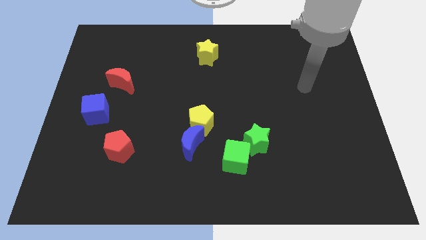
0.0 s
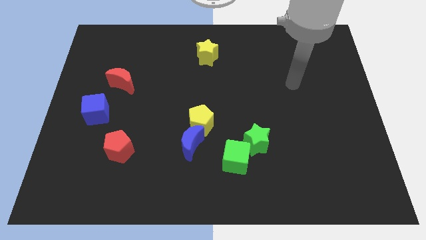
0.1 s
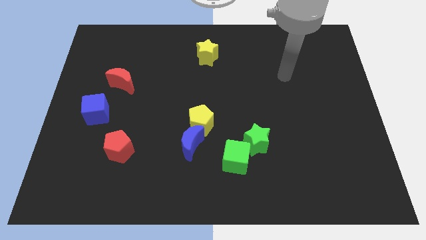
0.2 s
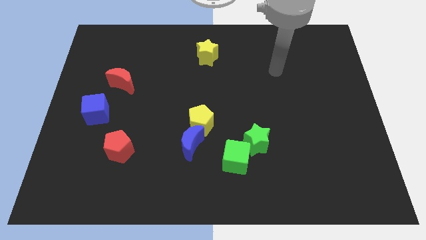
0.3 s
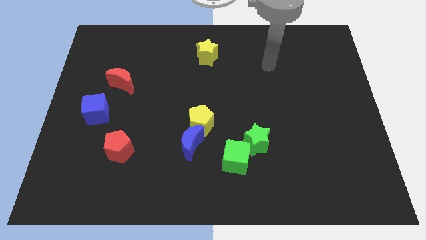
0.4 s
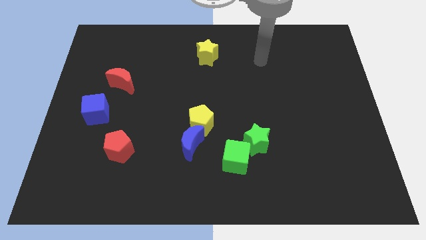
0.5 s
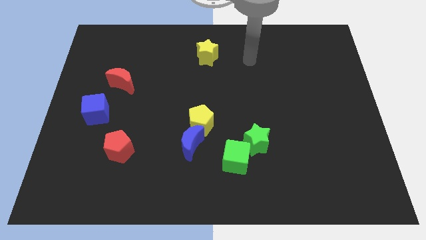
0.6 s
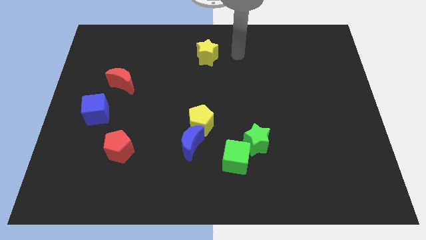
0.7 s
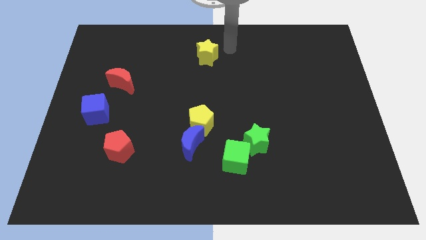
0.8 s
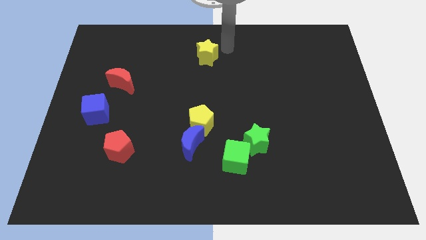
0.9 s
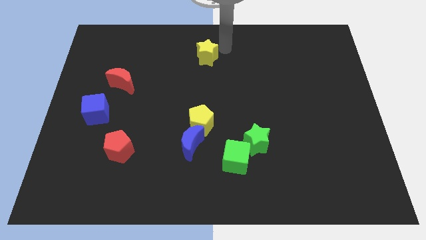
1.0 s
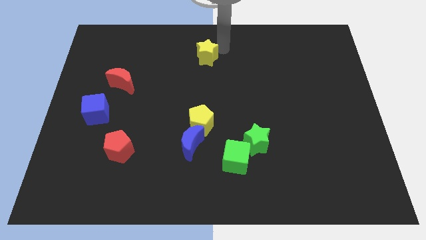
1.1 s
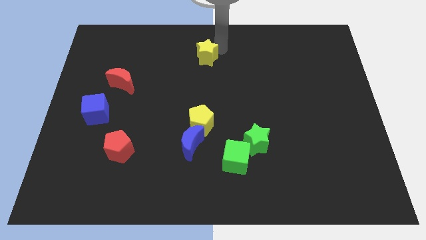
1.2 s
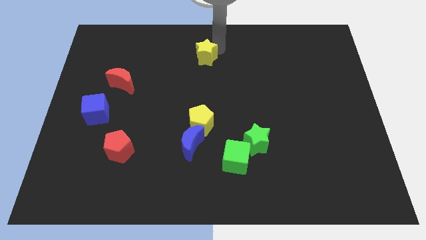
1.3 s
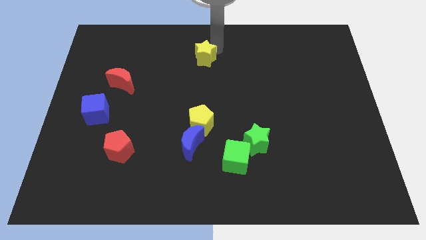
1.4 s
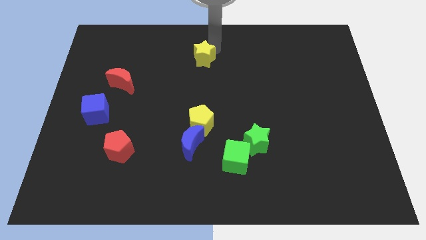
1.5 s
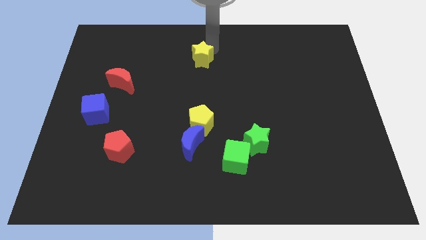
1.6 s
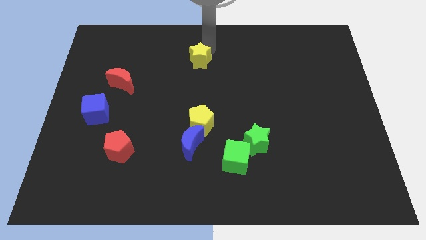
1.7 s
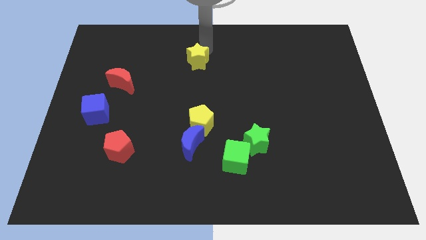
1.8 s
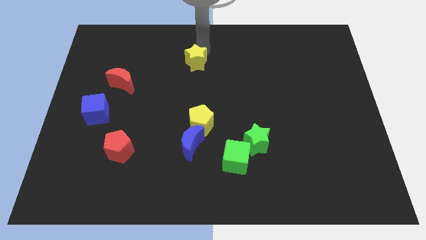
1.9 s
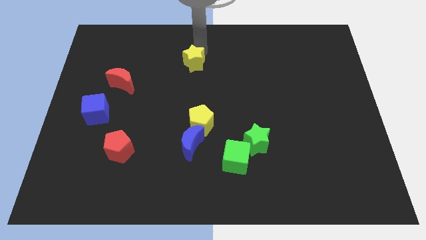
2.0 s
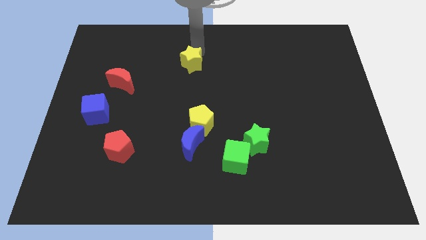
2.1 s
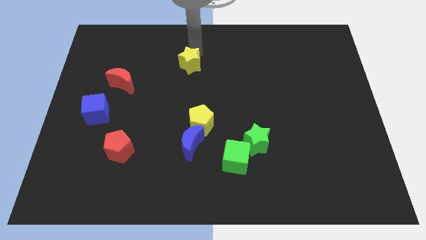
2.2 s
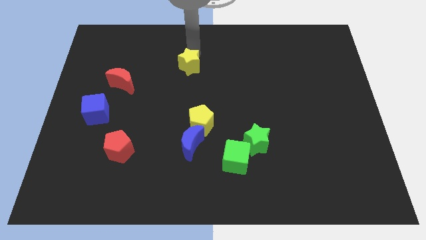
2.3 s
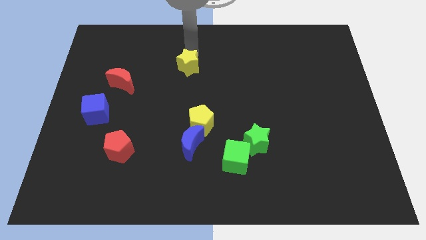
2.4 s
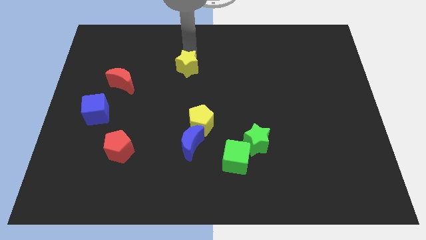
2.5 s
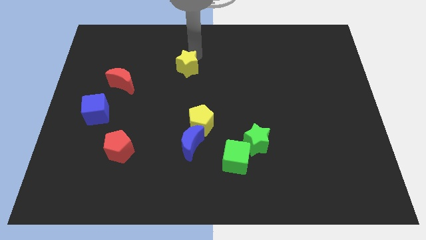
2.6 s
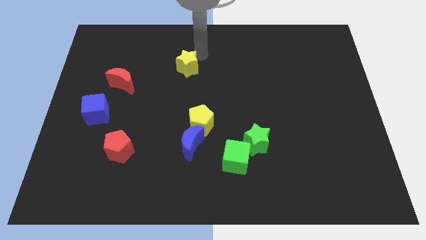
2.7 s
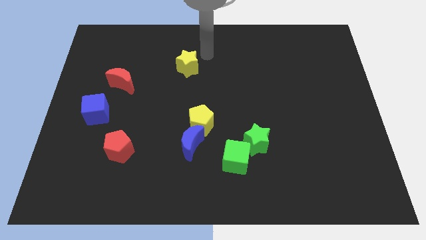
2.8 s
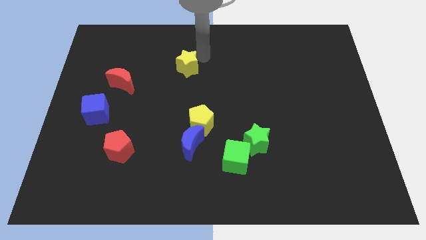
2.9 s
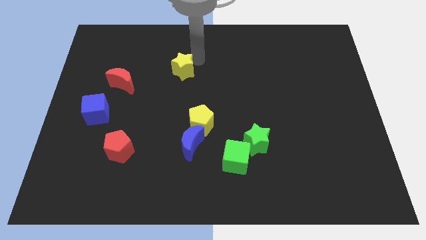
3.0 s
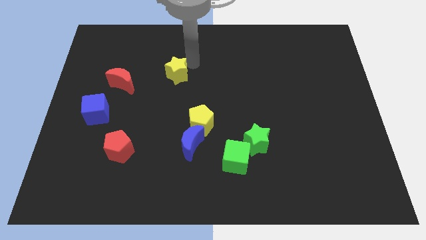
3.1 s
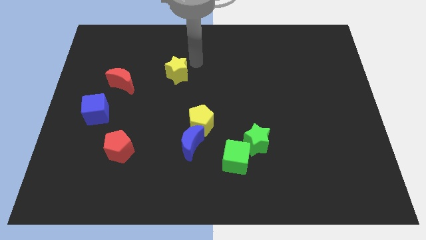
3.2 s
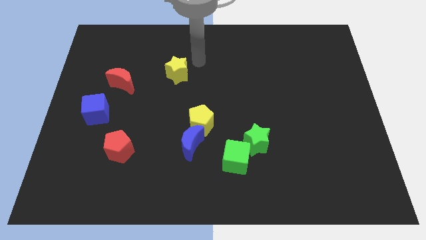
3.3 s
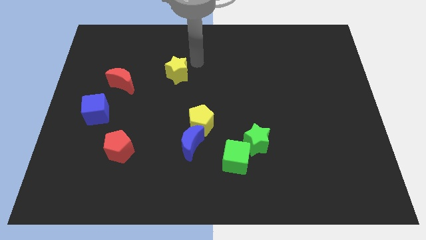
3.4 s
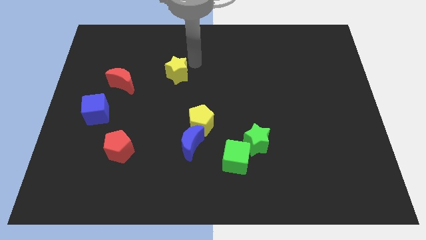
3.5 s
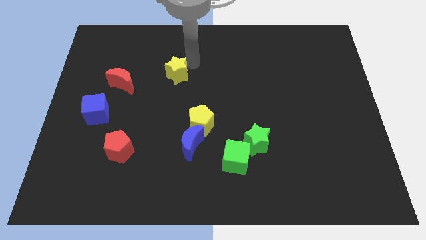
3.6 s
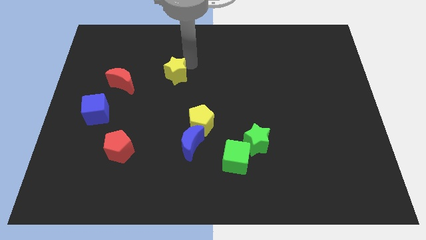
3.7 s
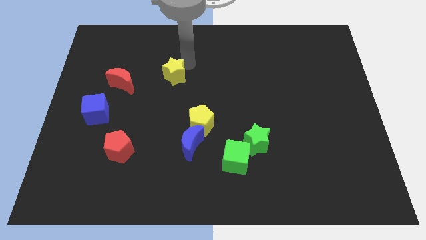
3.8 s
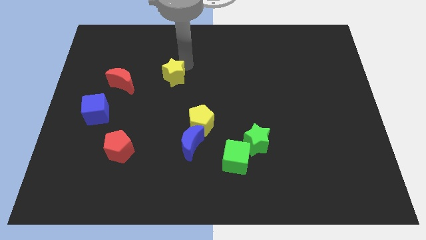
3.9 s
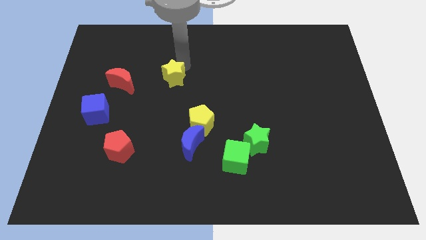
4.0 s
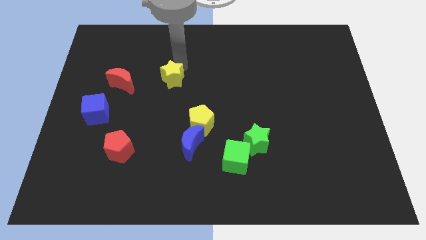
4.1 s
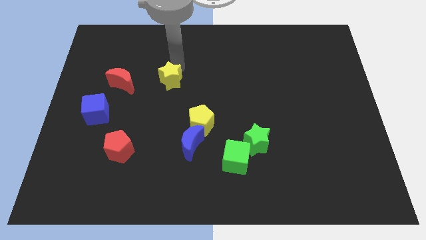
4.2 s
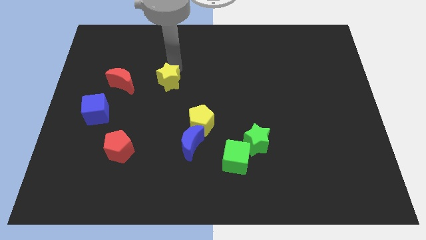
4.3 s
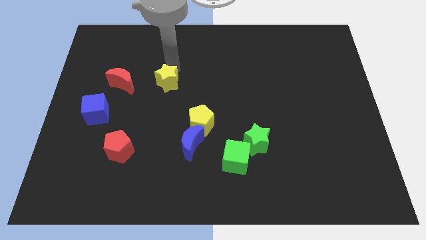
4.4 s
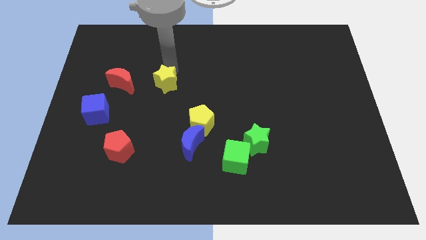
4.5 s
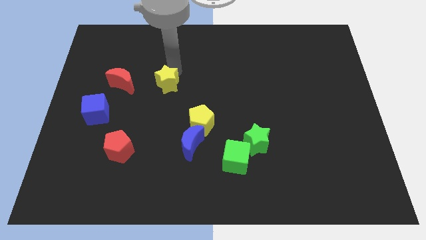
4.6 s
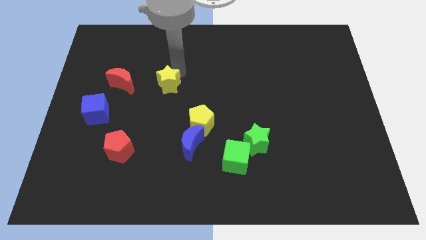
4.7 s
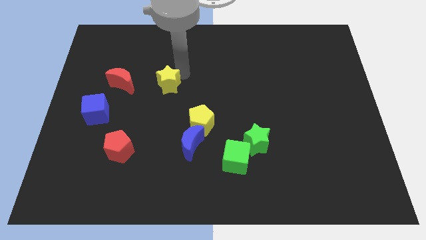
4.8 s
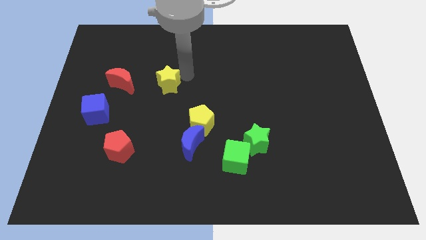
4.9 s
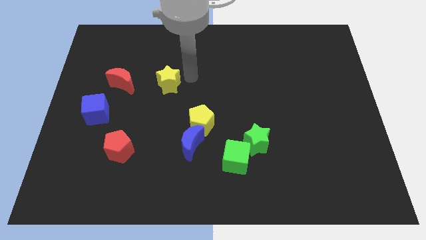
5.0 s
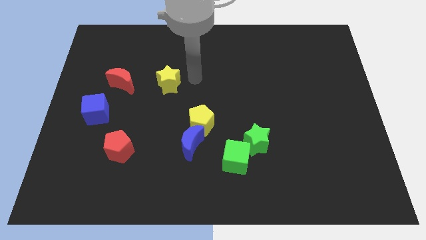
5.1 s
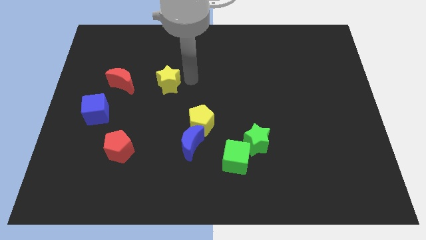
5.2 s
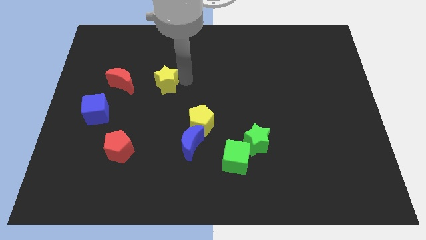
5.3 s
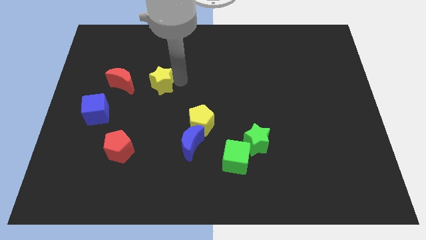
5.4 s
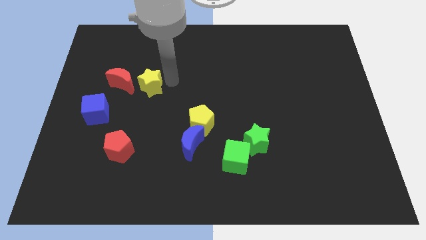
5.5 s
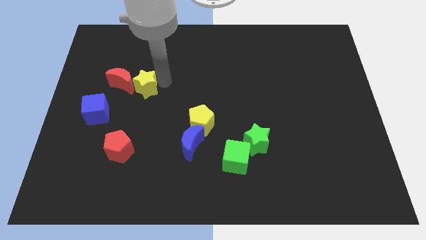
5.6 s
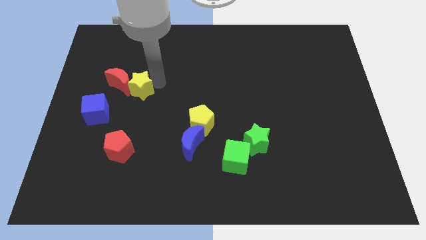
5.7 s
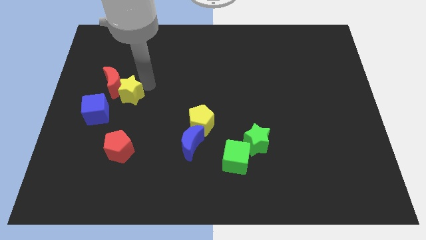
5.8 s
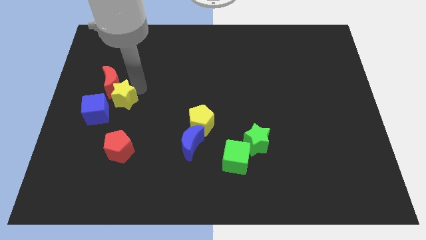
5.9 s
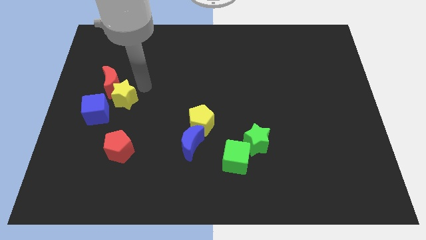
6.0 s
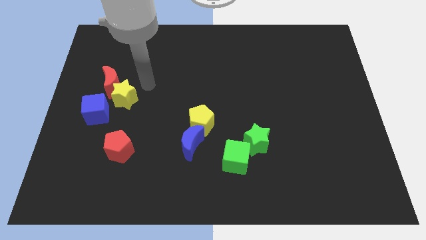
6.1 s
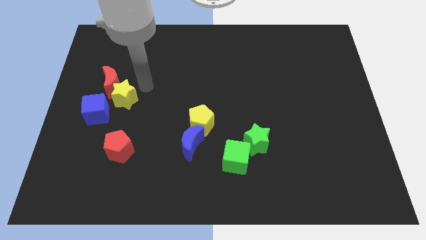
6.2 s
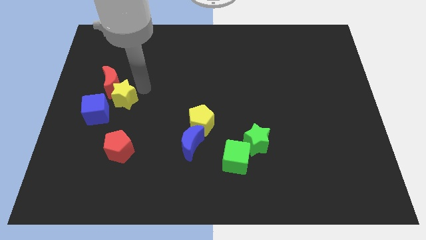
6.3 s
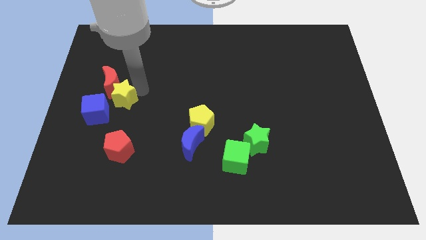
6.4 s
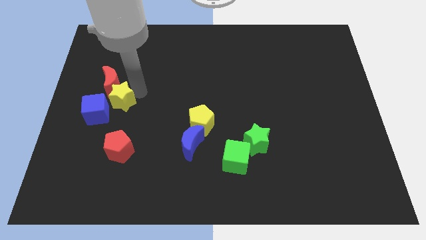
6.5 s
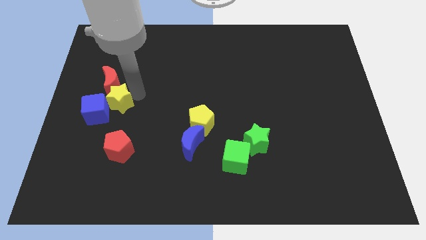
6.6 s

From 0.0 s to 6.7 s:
slide the yellow star to the blue cube

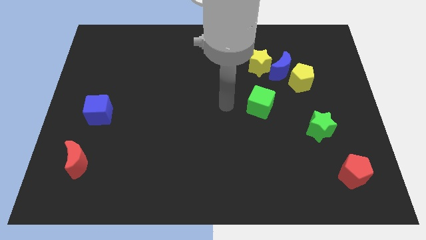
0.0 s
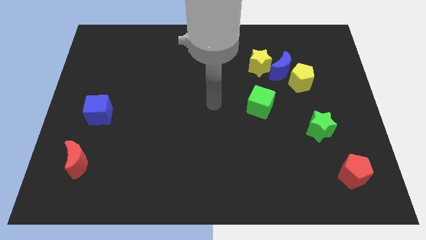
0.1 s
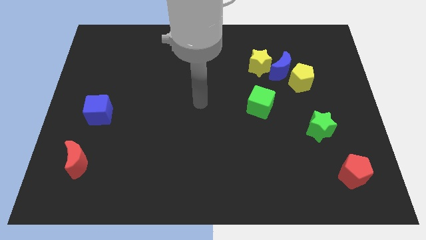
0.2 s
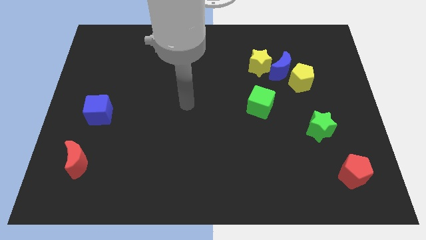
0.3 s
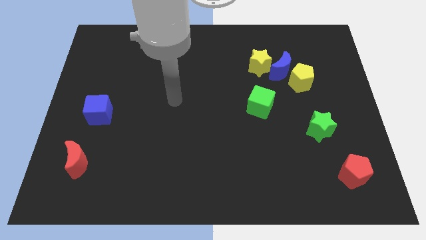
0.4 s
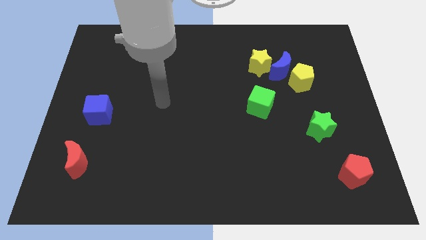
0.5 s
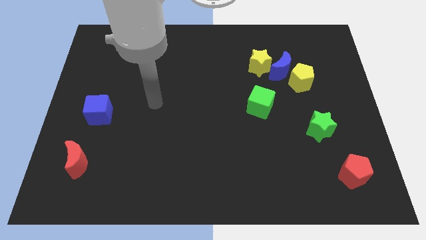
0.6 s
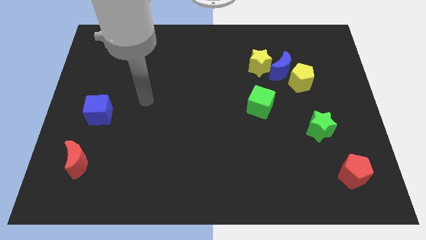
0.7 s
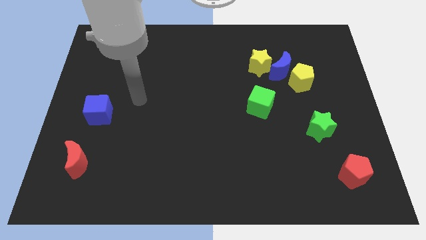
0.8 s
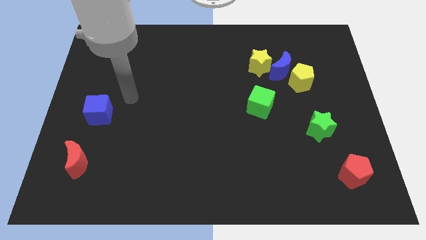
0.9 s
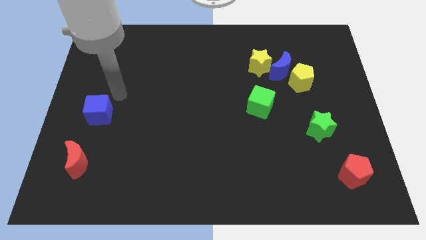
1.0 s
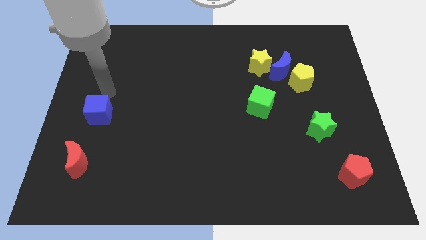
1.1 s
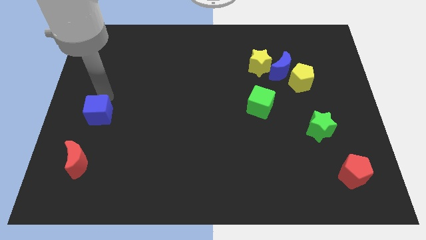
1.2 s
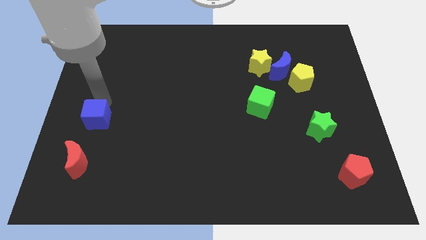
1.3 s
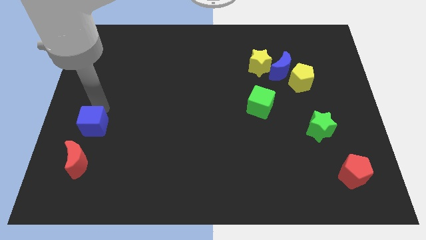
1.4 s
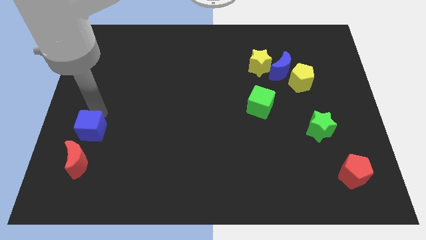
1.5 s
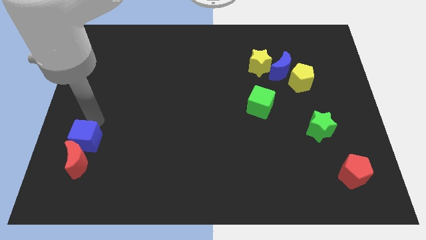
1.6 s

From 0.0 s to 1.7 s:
push the blue cube towards the red moon
